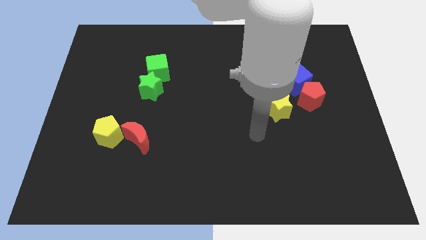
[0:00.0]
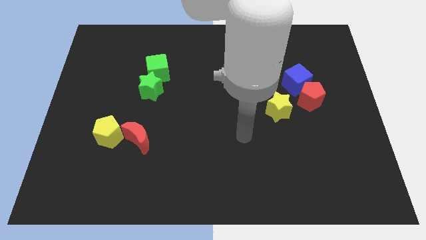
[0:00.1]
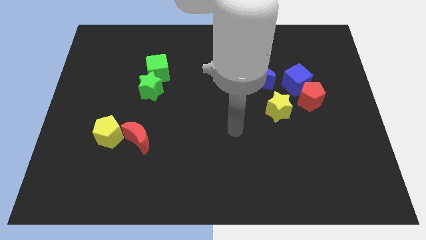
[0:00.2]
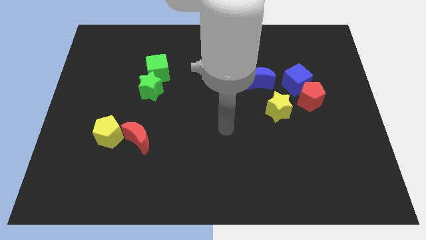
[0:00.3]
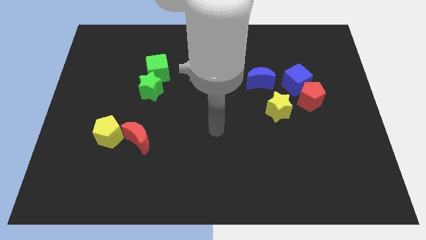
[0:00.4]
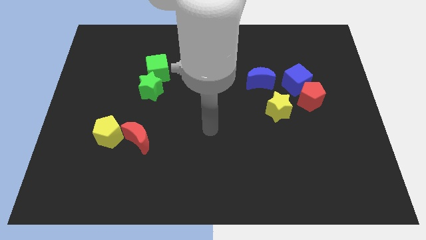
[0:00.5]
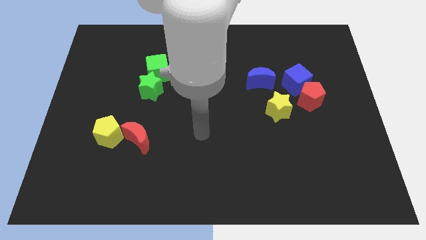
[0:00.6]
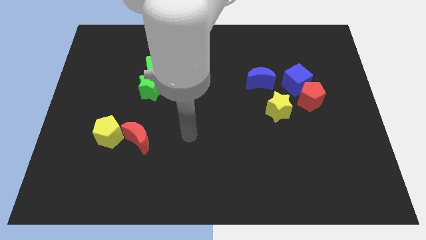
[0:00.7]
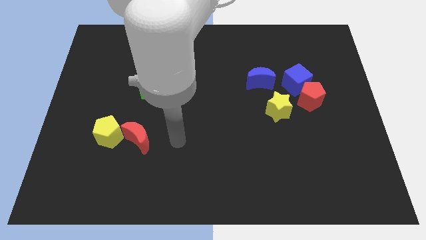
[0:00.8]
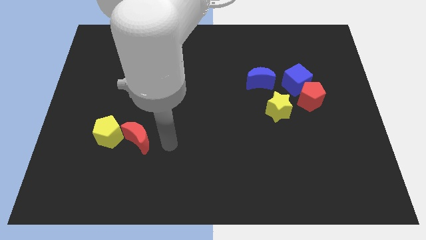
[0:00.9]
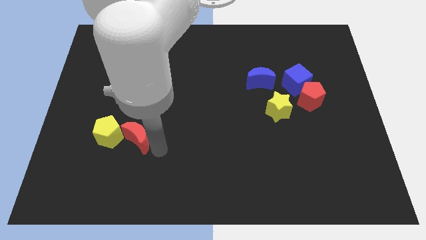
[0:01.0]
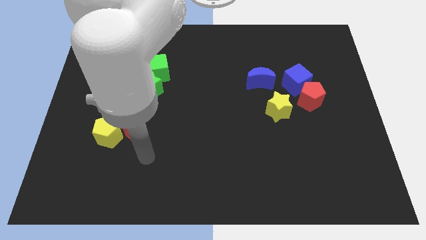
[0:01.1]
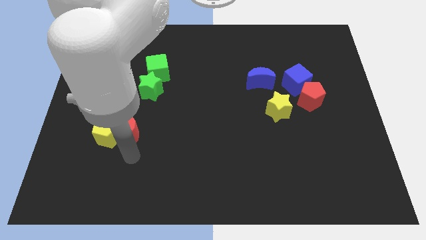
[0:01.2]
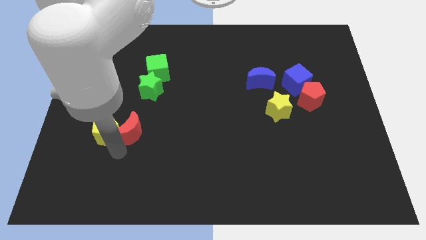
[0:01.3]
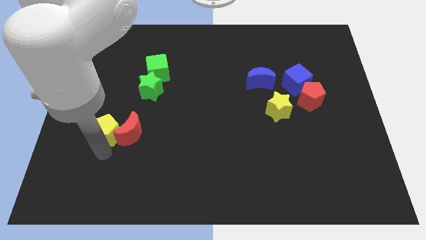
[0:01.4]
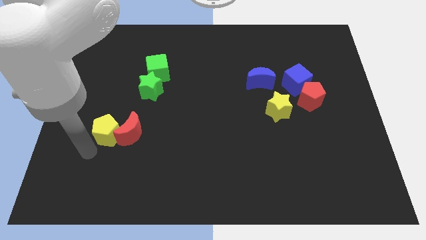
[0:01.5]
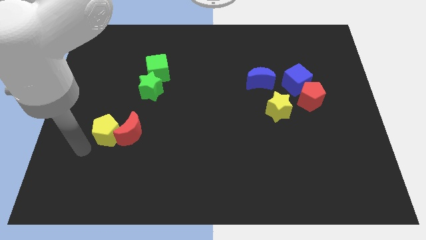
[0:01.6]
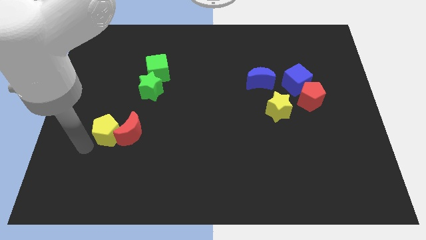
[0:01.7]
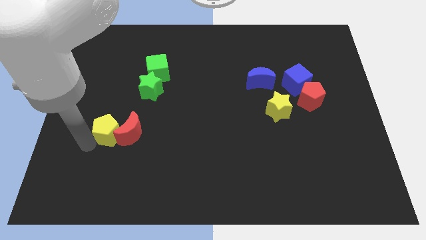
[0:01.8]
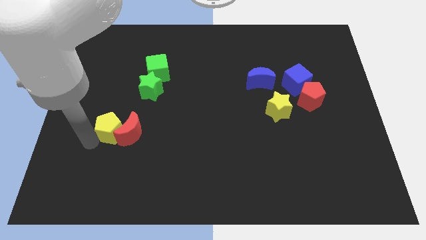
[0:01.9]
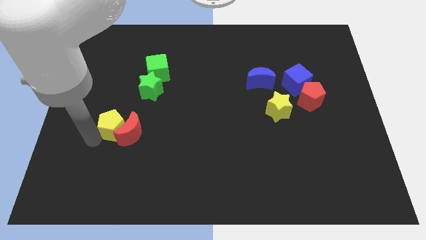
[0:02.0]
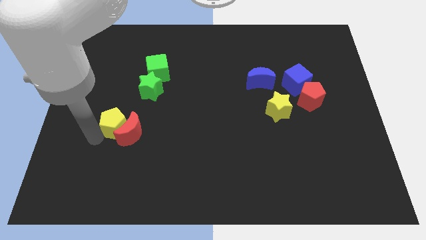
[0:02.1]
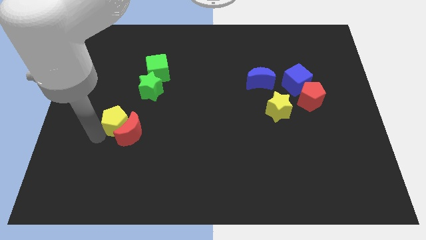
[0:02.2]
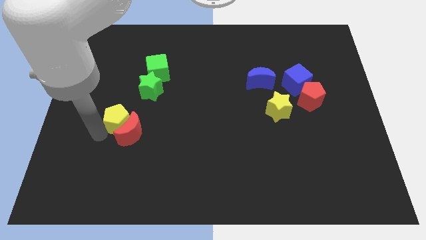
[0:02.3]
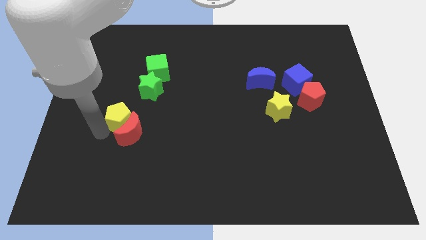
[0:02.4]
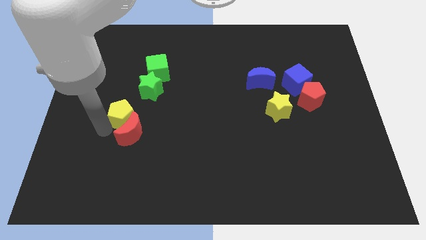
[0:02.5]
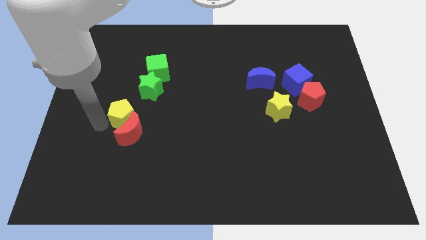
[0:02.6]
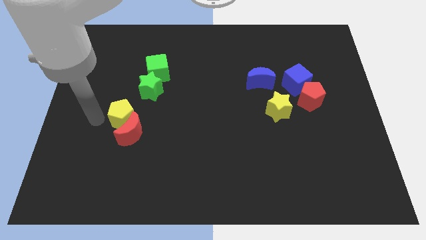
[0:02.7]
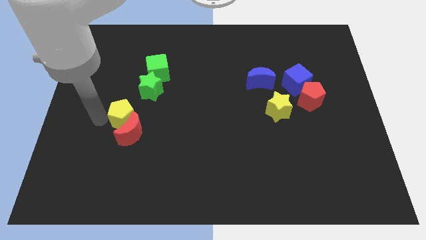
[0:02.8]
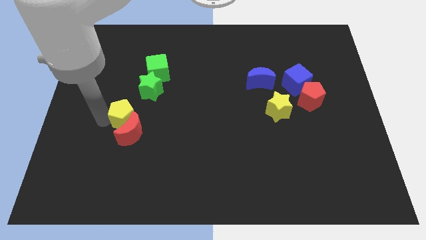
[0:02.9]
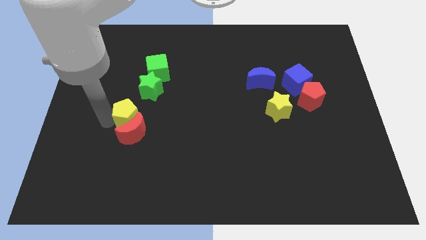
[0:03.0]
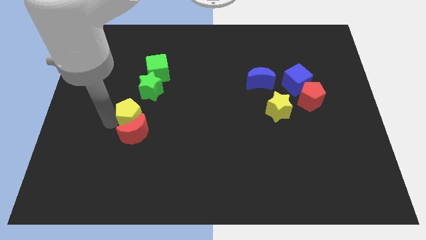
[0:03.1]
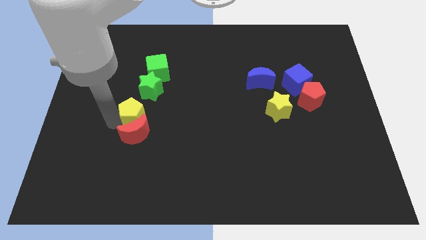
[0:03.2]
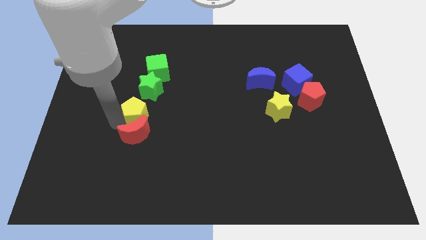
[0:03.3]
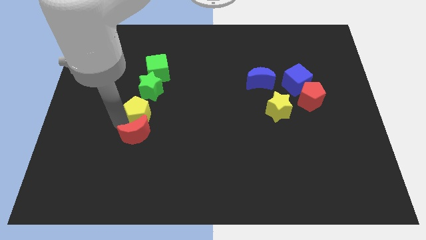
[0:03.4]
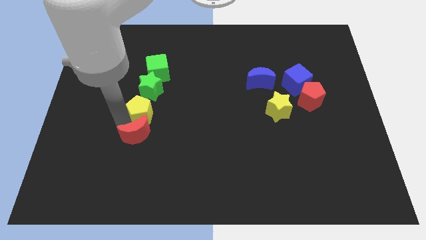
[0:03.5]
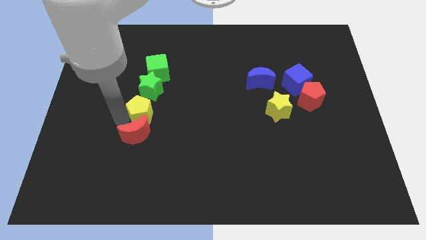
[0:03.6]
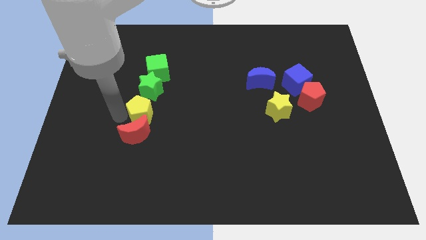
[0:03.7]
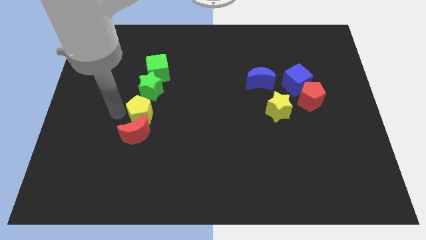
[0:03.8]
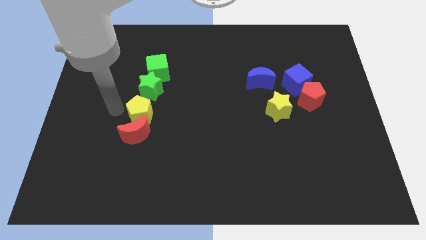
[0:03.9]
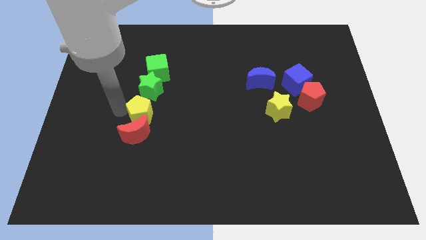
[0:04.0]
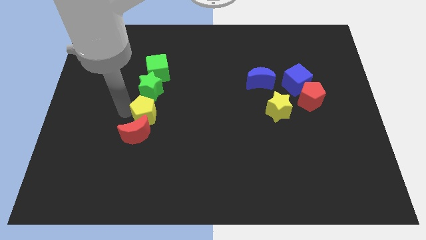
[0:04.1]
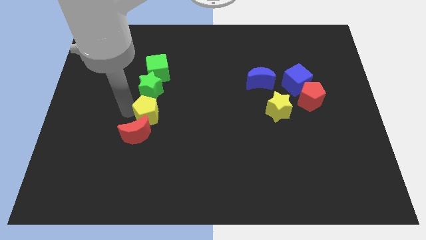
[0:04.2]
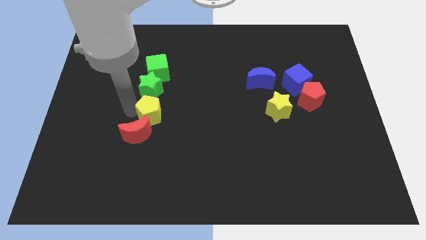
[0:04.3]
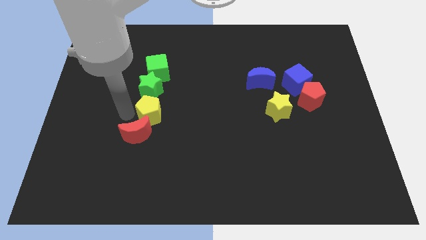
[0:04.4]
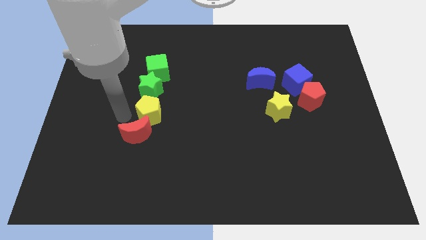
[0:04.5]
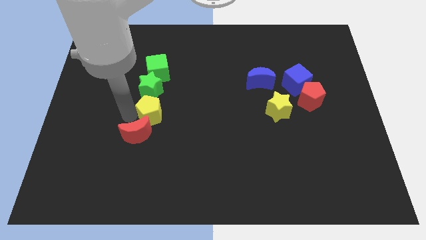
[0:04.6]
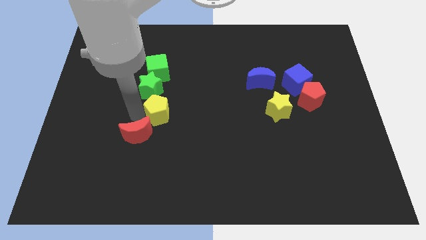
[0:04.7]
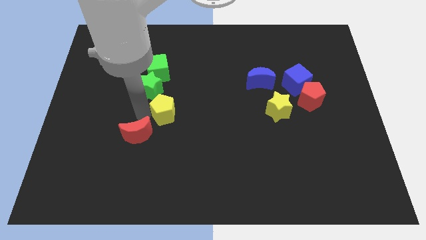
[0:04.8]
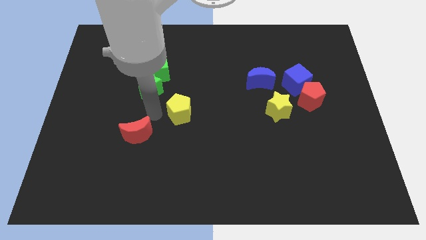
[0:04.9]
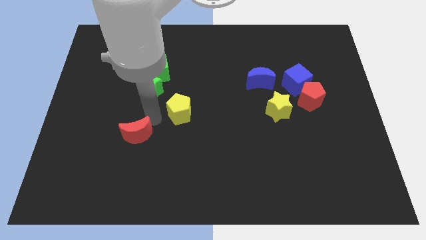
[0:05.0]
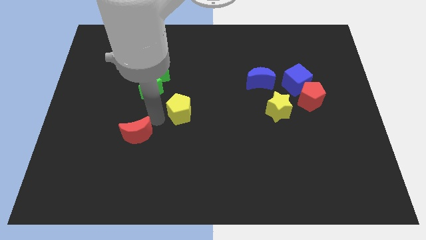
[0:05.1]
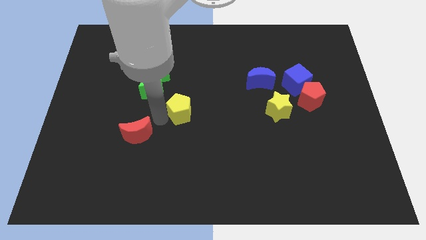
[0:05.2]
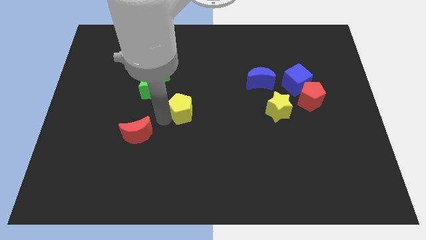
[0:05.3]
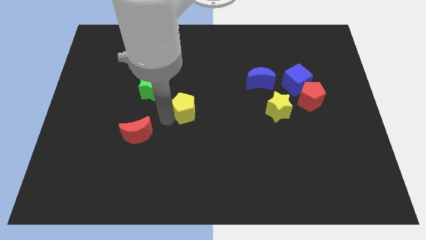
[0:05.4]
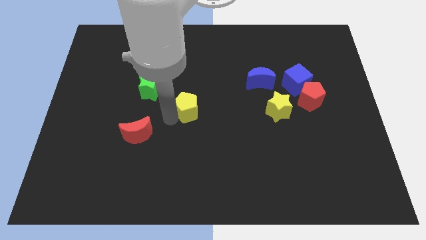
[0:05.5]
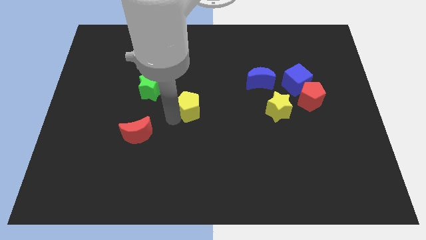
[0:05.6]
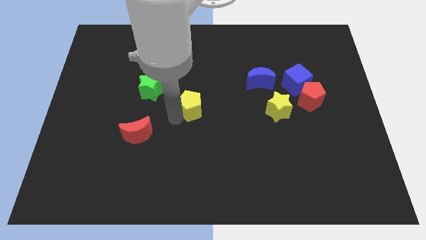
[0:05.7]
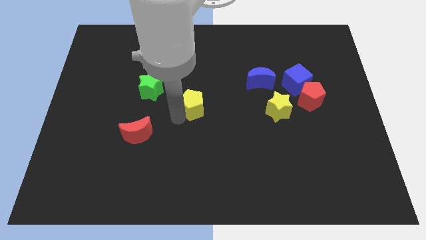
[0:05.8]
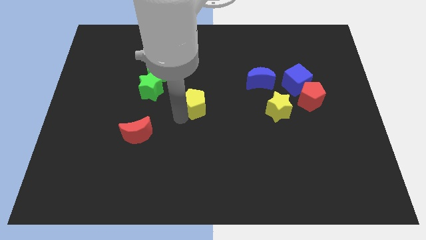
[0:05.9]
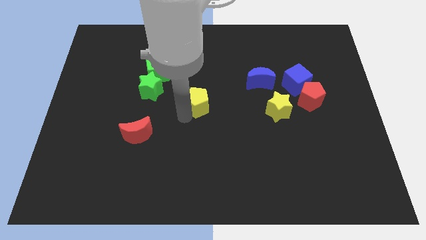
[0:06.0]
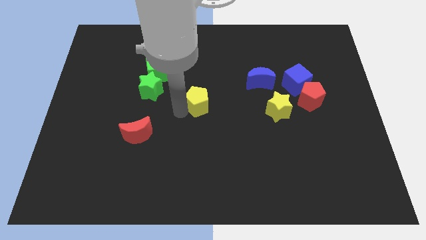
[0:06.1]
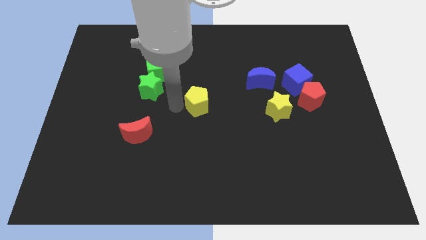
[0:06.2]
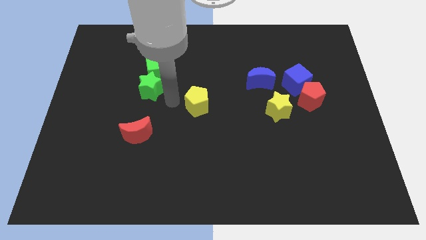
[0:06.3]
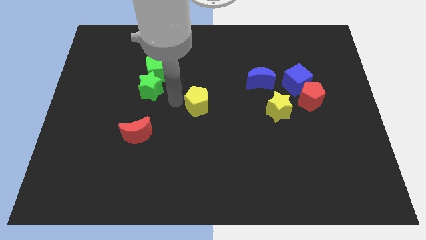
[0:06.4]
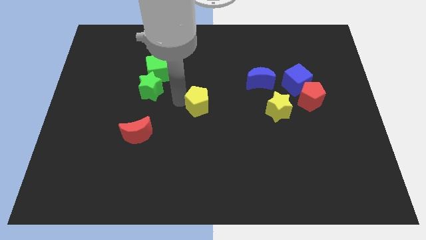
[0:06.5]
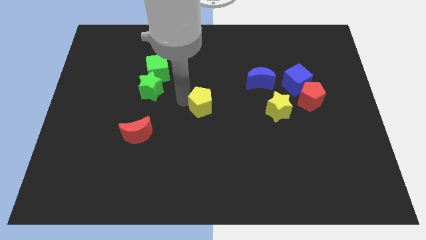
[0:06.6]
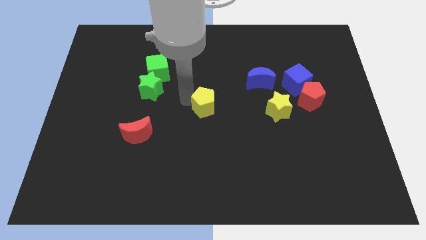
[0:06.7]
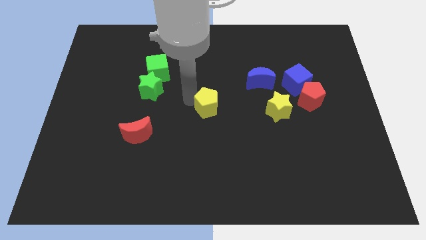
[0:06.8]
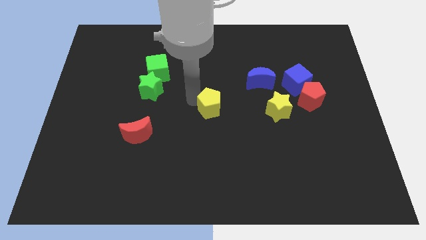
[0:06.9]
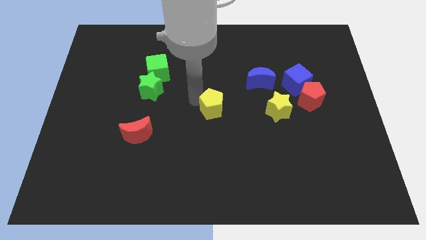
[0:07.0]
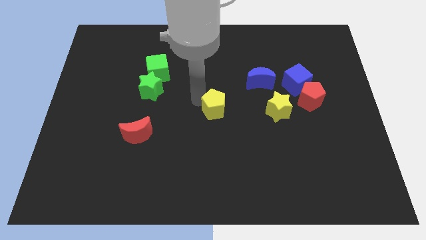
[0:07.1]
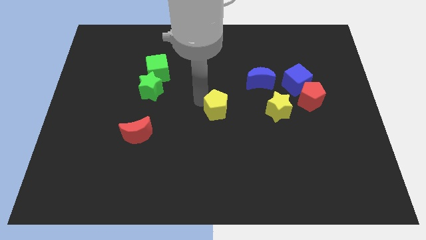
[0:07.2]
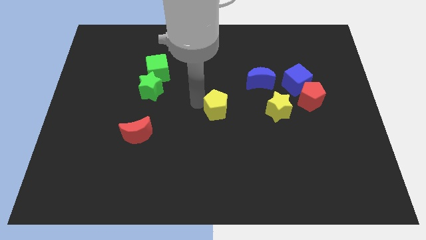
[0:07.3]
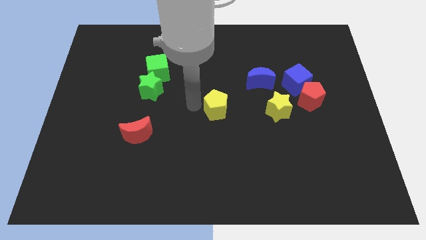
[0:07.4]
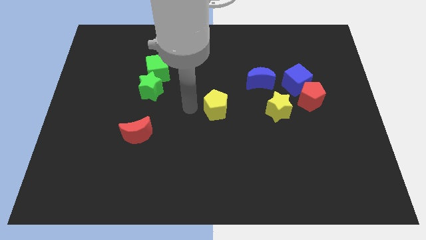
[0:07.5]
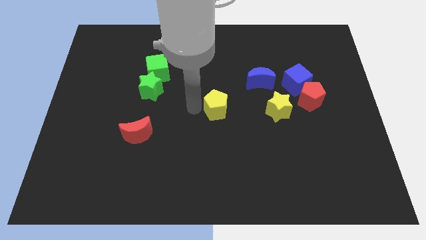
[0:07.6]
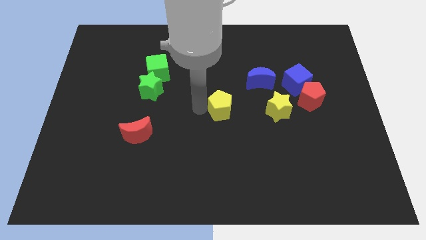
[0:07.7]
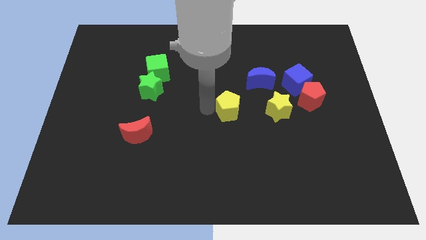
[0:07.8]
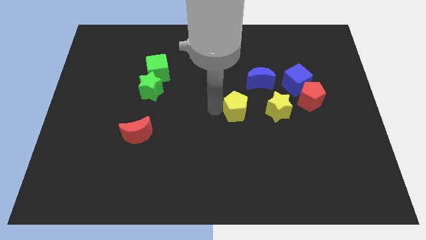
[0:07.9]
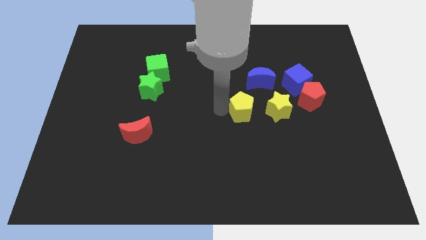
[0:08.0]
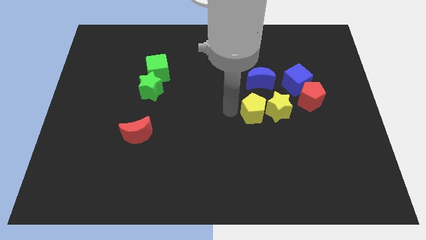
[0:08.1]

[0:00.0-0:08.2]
slide the yellow pentagon towards the yellow star
